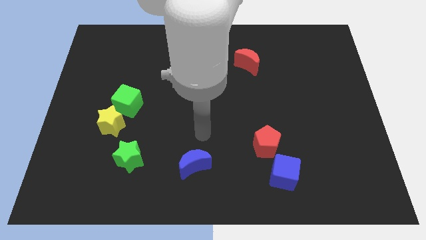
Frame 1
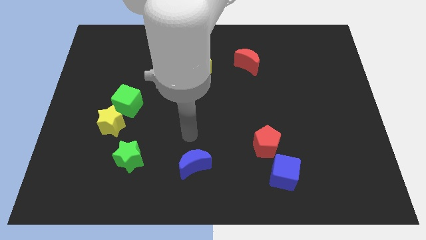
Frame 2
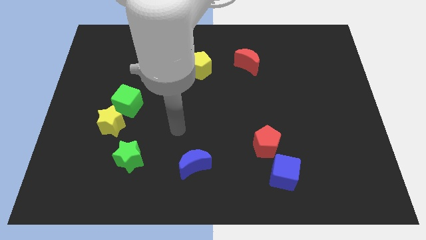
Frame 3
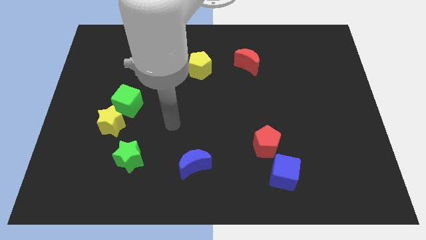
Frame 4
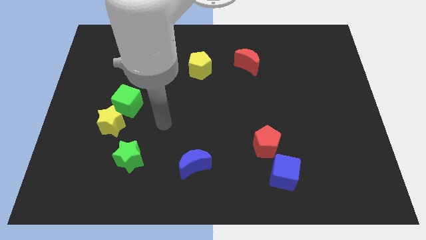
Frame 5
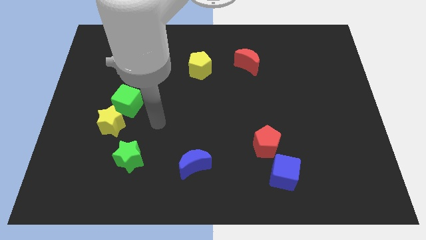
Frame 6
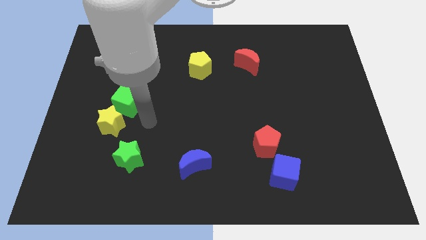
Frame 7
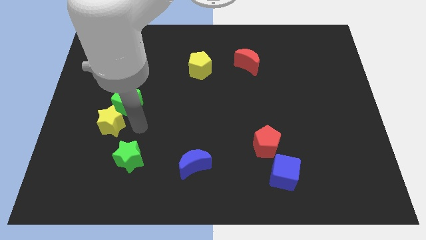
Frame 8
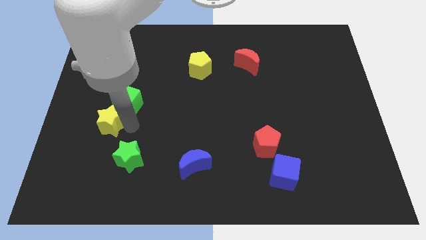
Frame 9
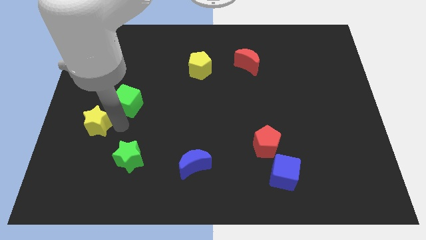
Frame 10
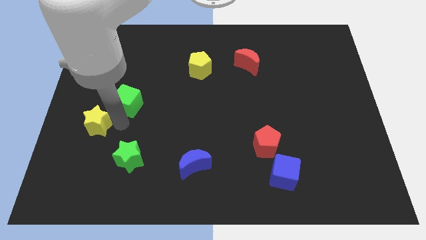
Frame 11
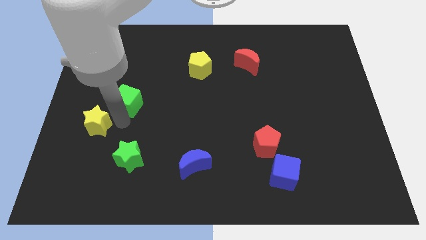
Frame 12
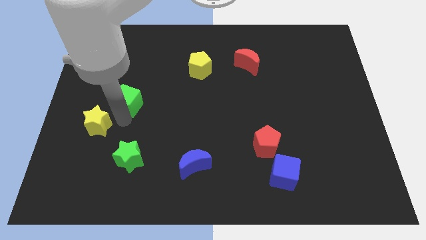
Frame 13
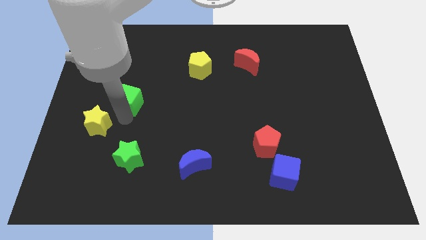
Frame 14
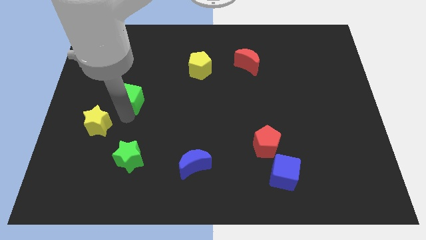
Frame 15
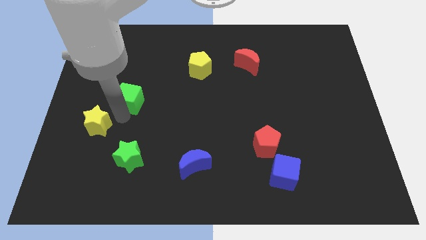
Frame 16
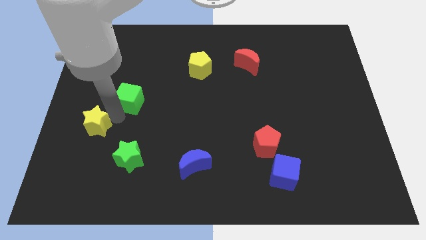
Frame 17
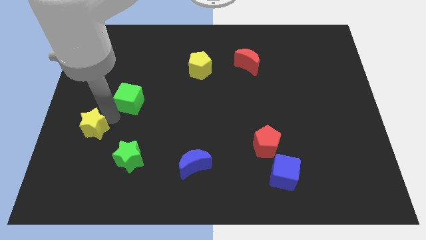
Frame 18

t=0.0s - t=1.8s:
pull the green cube apart from the yellow star

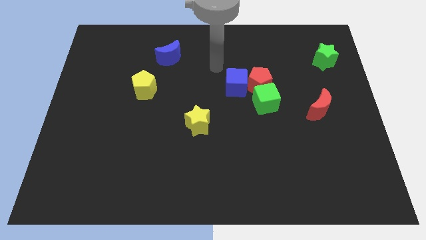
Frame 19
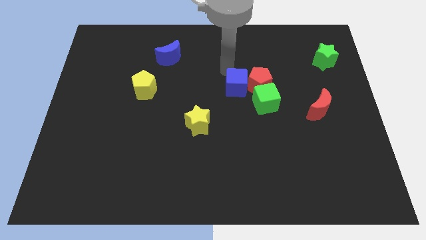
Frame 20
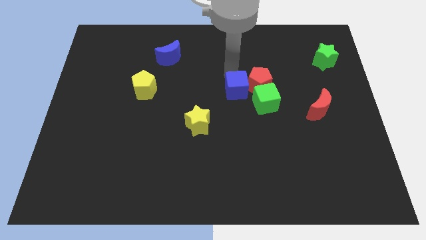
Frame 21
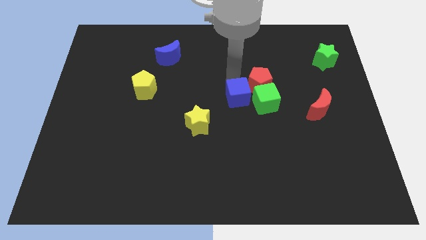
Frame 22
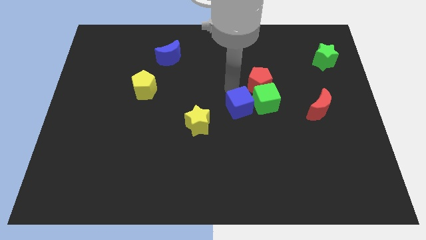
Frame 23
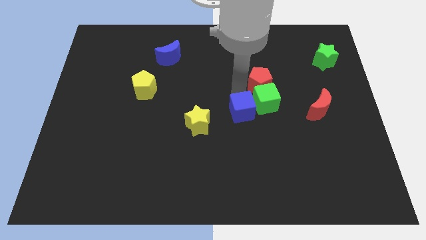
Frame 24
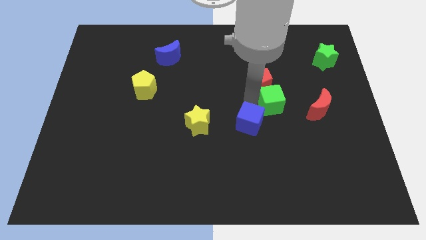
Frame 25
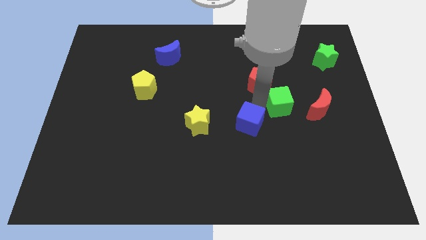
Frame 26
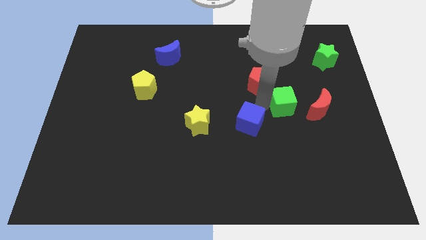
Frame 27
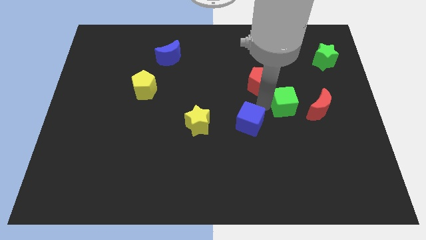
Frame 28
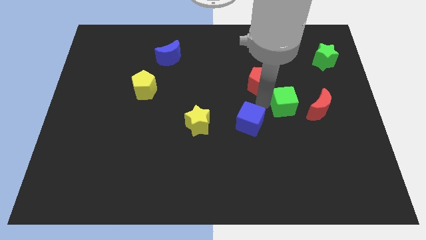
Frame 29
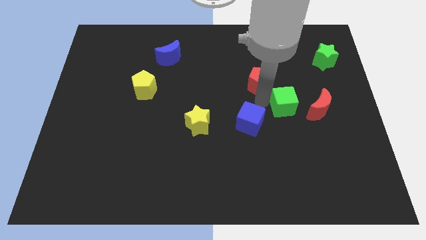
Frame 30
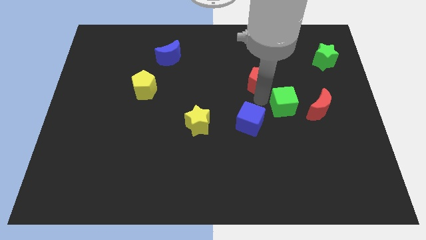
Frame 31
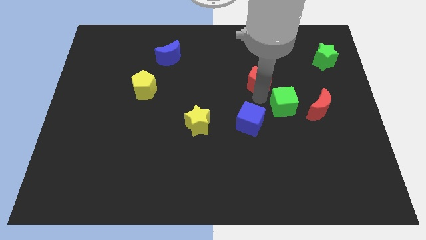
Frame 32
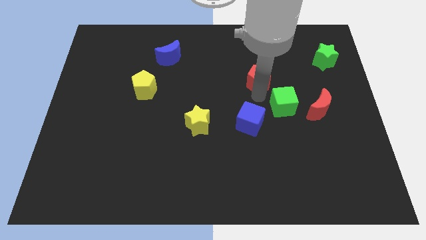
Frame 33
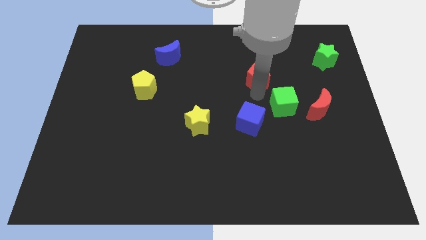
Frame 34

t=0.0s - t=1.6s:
move the red pentagon away from the green cube and blue cube

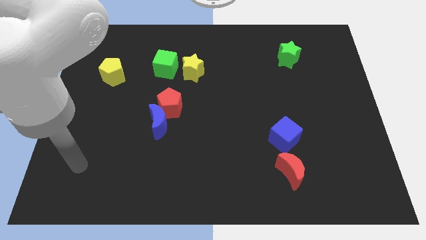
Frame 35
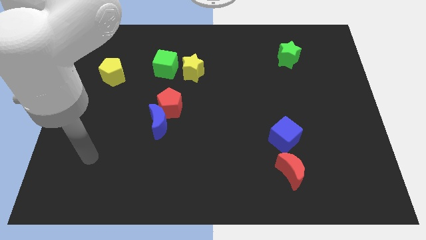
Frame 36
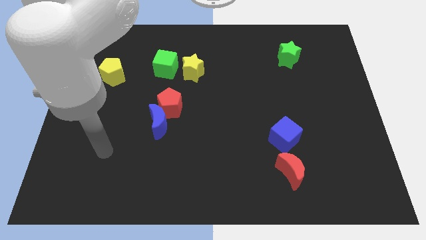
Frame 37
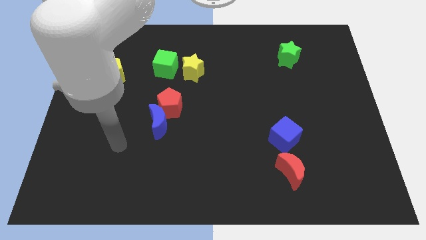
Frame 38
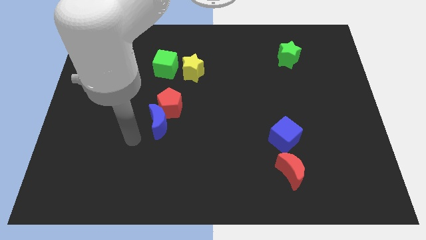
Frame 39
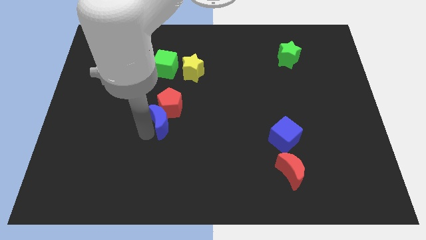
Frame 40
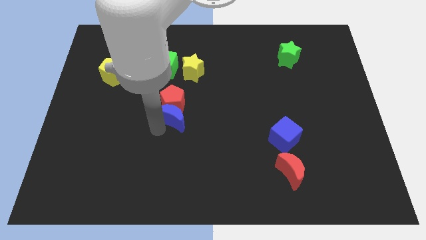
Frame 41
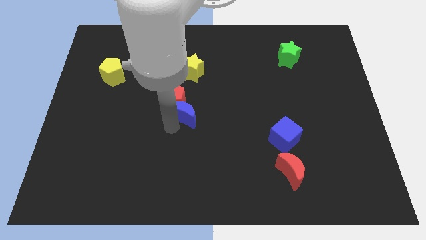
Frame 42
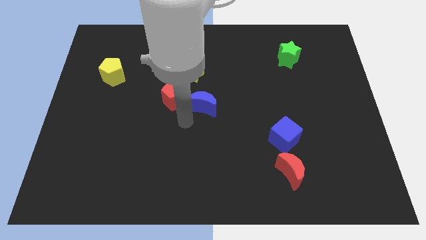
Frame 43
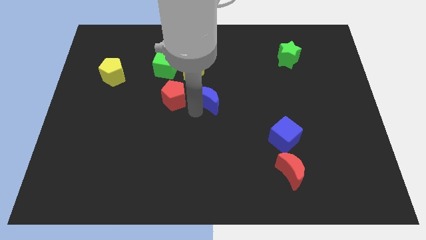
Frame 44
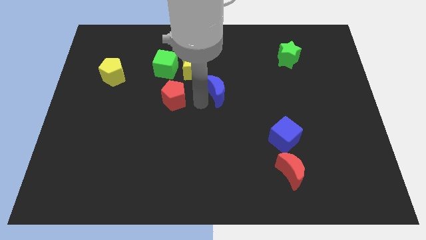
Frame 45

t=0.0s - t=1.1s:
separate the red pentagon from the blue moon

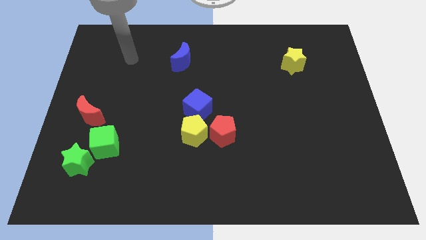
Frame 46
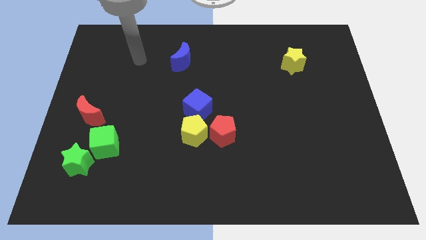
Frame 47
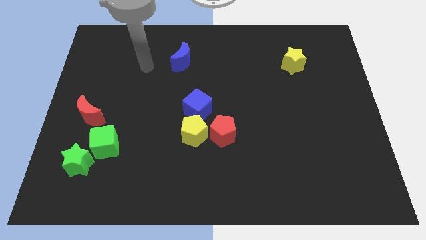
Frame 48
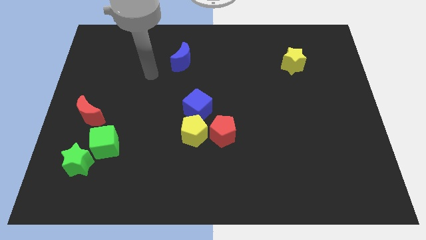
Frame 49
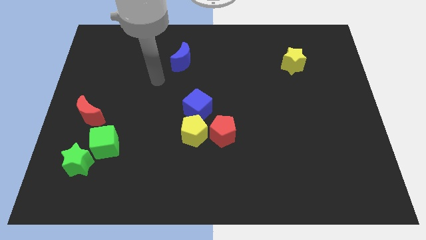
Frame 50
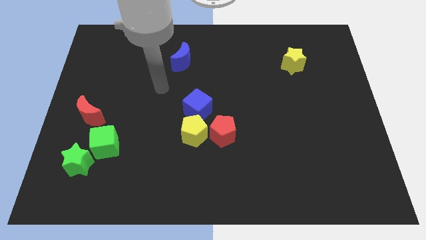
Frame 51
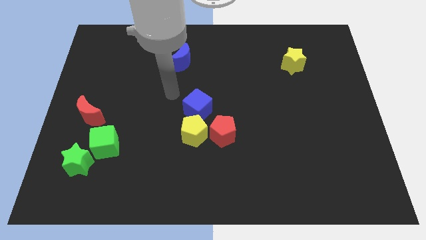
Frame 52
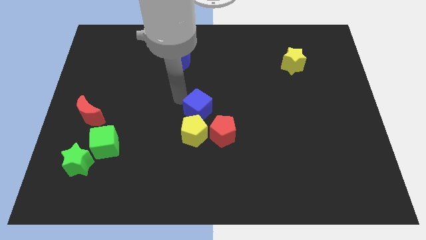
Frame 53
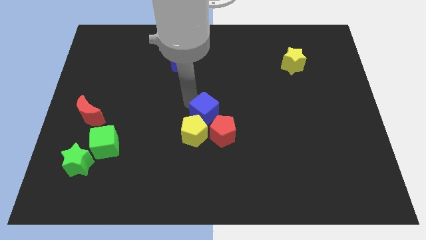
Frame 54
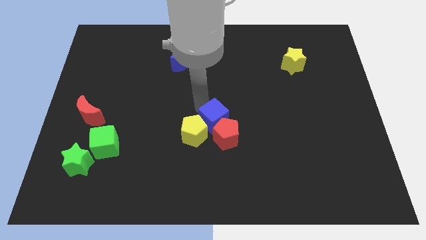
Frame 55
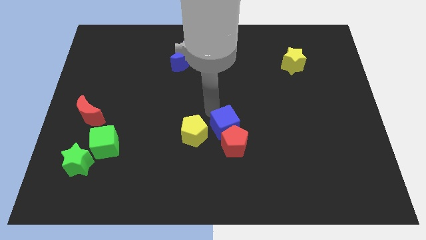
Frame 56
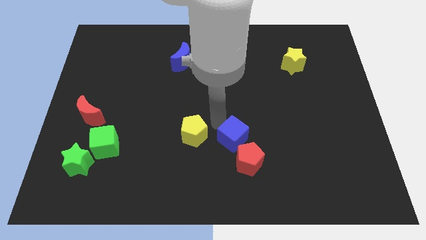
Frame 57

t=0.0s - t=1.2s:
separate the yellow pentagon from the red pentagon and blue cube

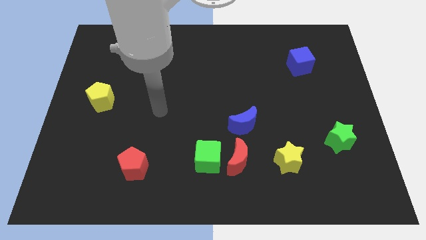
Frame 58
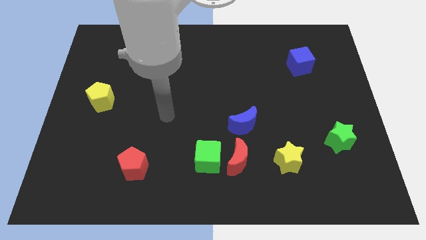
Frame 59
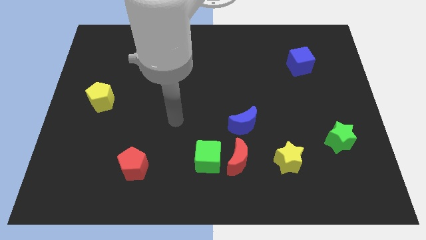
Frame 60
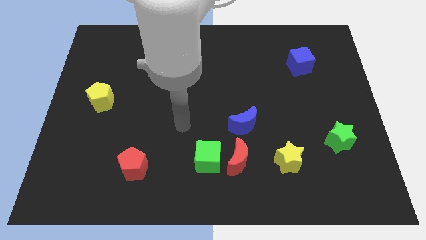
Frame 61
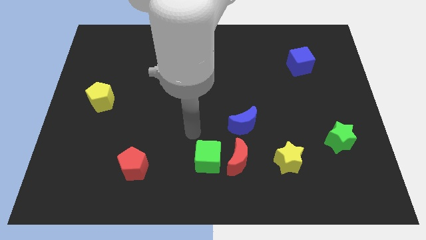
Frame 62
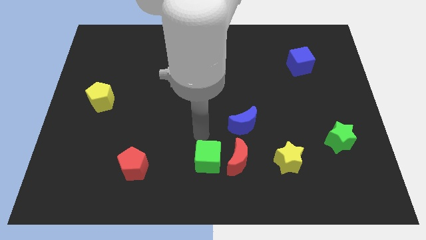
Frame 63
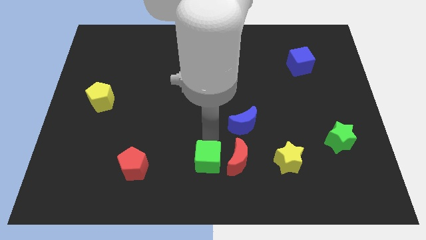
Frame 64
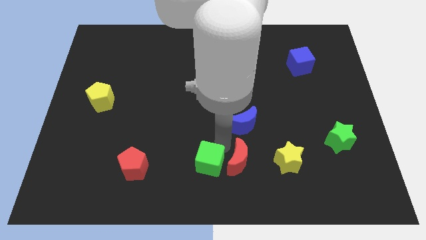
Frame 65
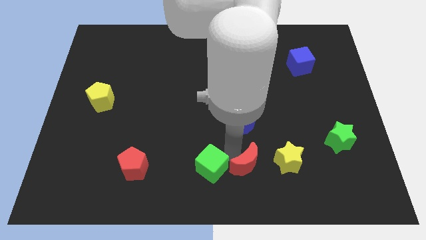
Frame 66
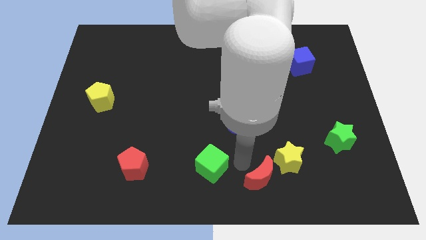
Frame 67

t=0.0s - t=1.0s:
move the green cube away from the red moon

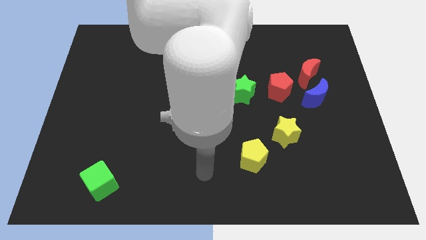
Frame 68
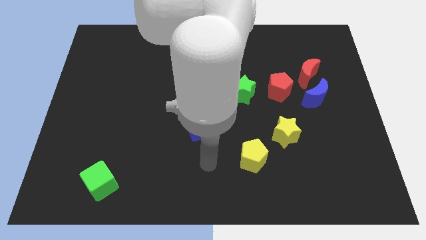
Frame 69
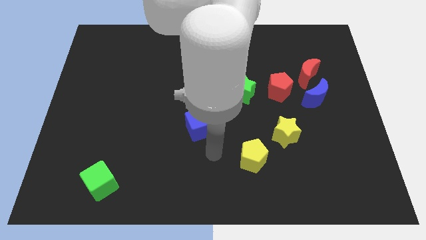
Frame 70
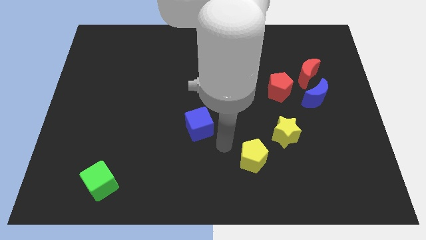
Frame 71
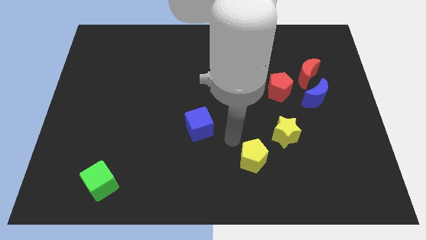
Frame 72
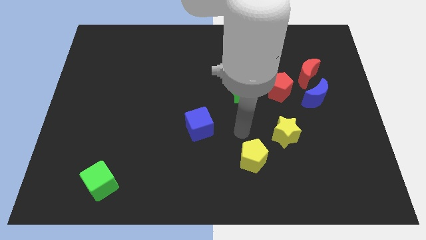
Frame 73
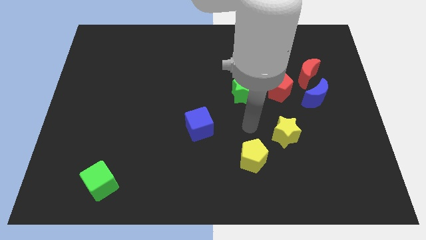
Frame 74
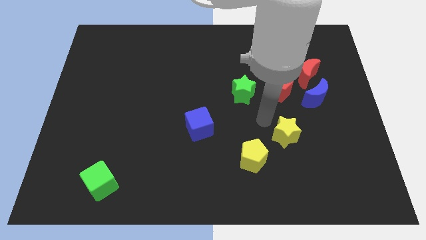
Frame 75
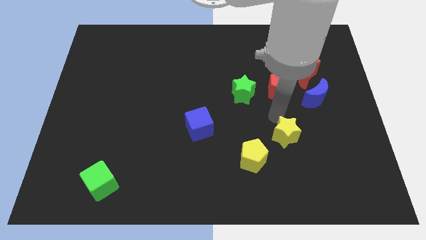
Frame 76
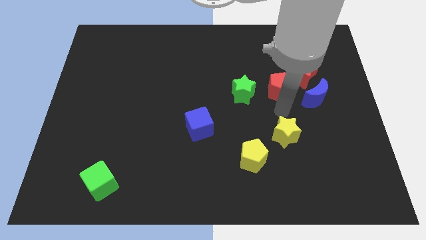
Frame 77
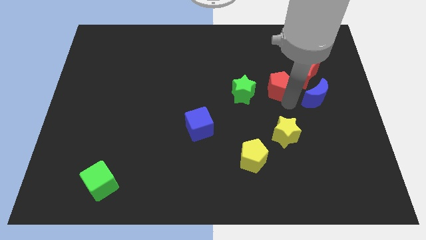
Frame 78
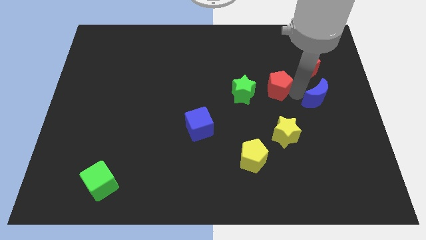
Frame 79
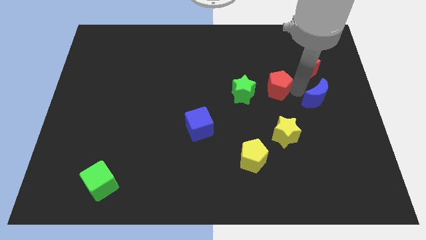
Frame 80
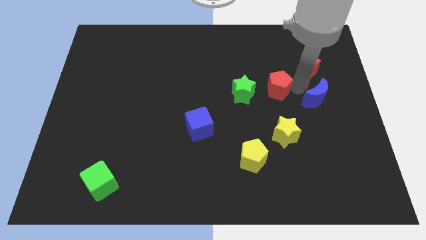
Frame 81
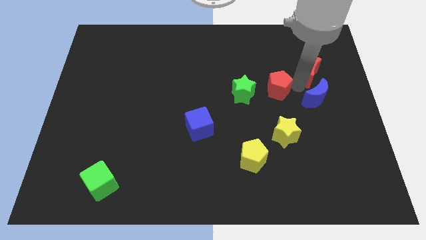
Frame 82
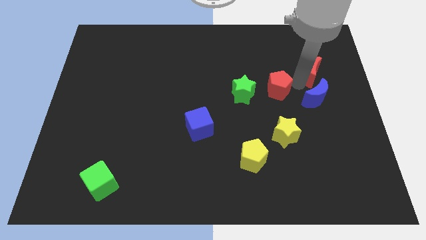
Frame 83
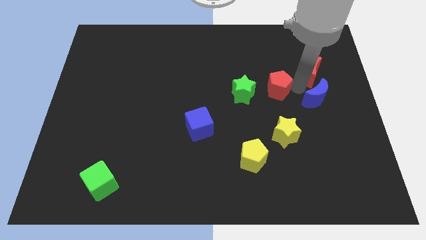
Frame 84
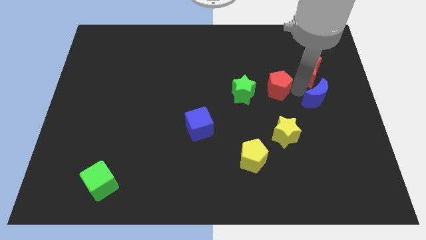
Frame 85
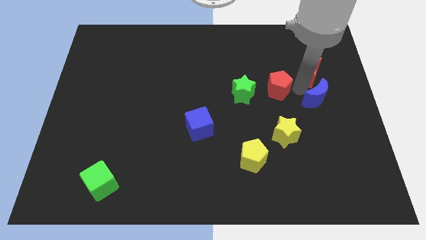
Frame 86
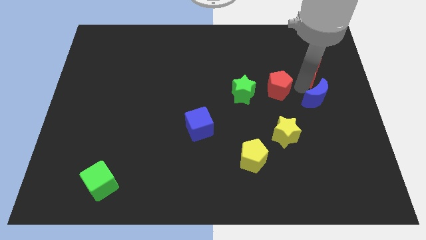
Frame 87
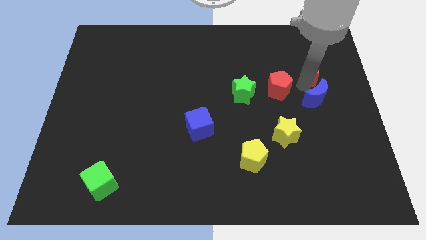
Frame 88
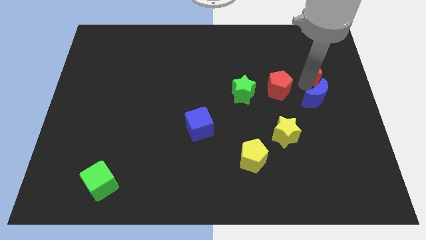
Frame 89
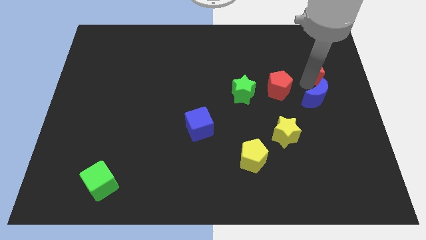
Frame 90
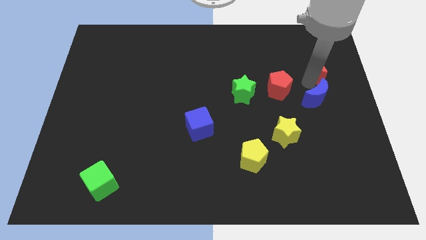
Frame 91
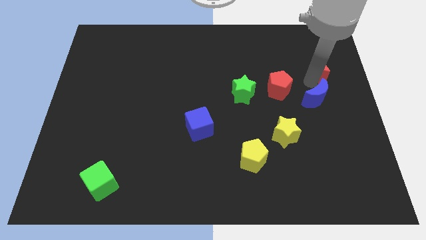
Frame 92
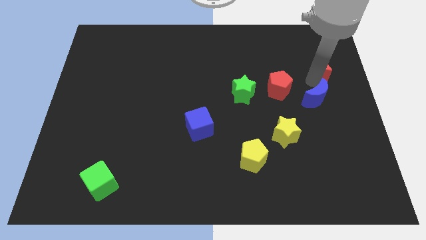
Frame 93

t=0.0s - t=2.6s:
separate the red moon from the blue moon and red pentagon
